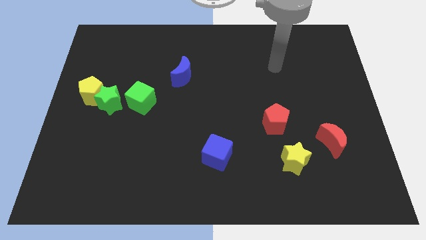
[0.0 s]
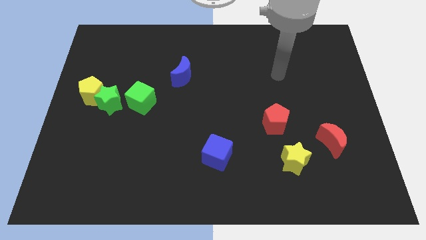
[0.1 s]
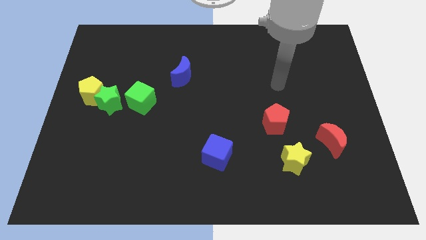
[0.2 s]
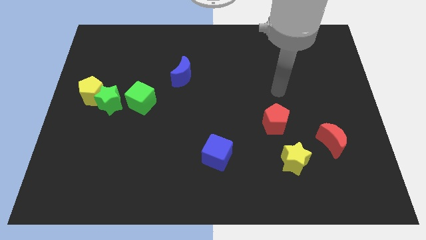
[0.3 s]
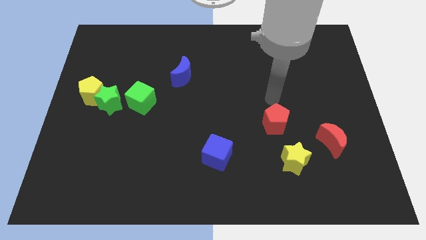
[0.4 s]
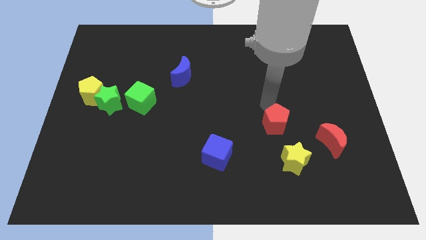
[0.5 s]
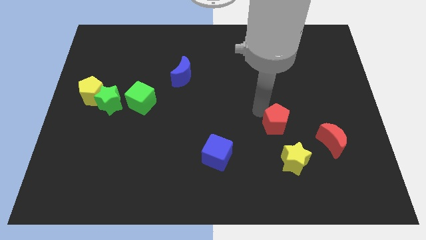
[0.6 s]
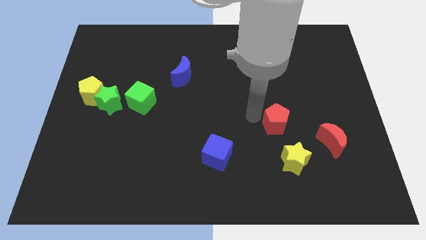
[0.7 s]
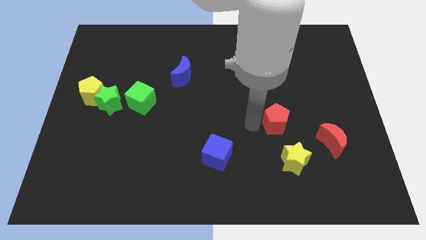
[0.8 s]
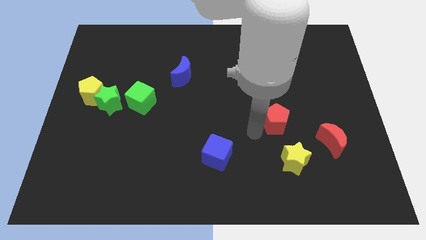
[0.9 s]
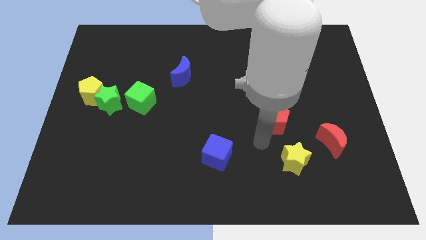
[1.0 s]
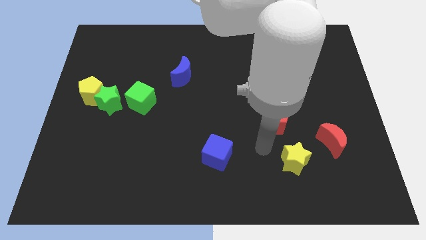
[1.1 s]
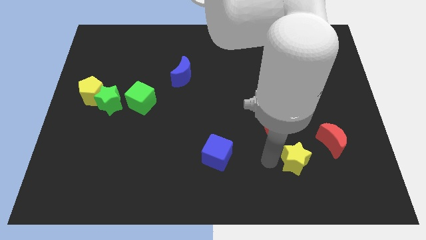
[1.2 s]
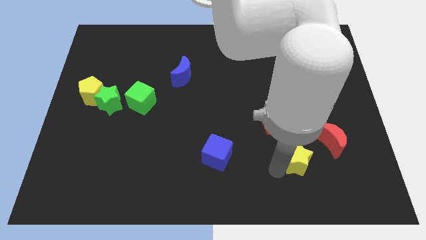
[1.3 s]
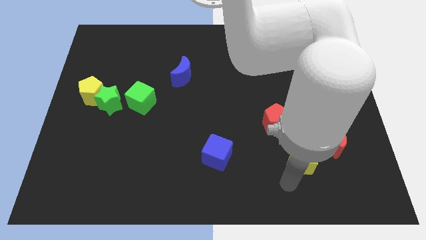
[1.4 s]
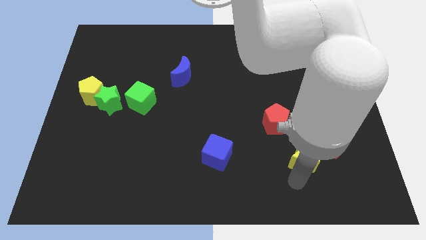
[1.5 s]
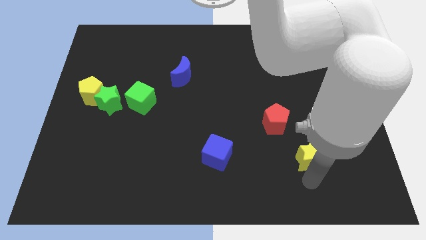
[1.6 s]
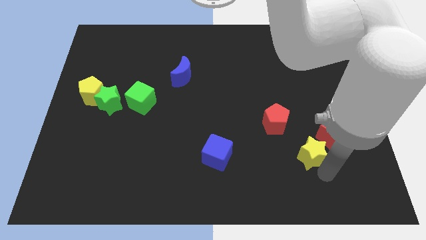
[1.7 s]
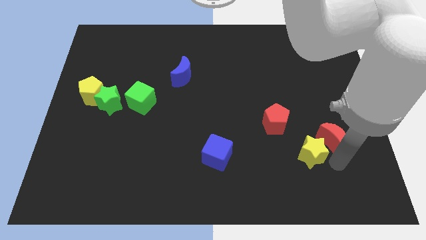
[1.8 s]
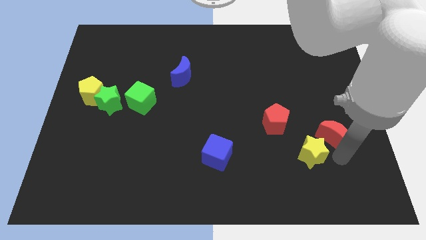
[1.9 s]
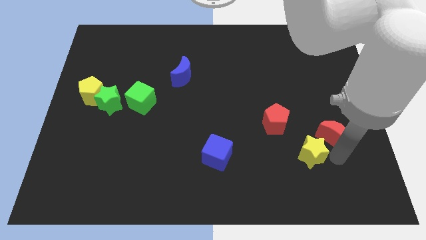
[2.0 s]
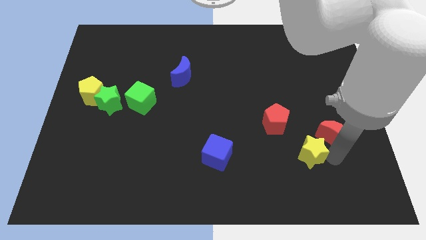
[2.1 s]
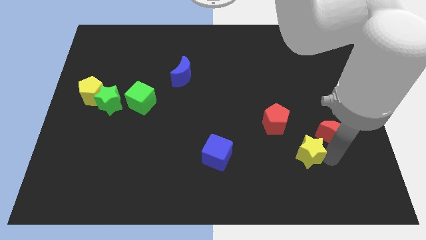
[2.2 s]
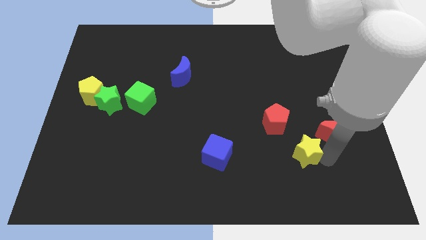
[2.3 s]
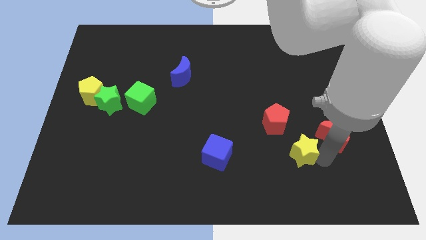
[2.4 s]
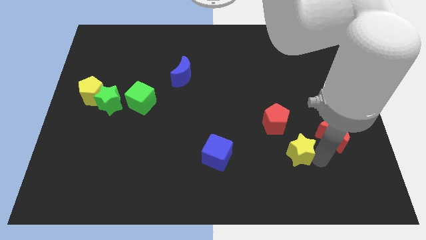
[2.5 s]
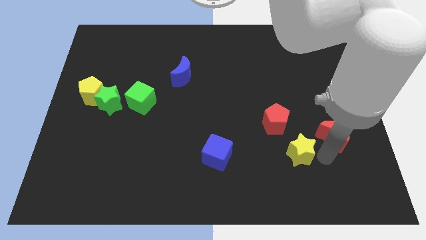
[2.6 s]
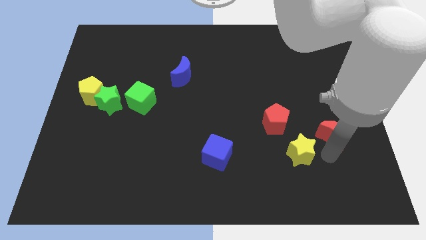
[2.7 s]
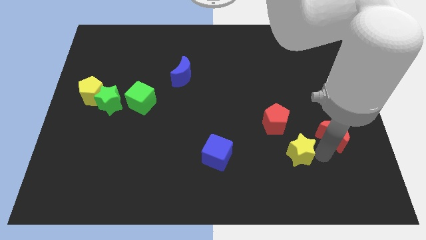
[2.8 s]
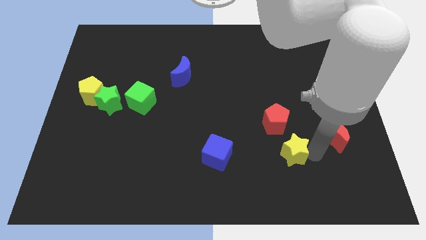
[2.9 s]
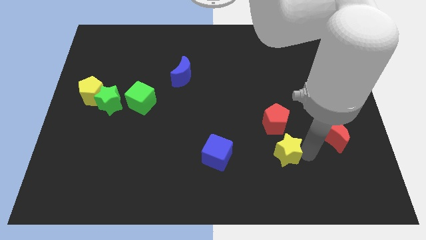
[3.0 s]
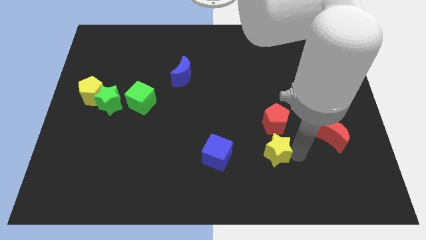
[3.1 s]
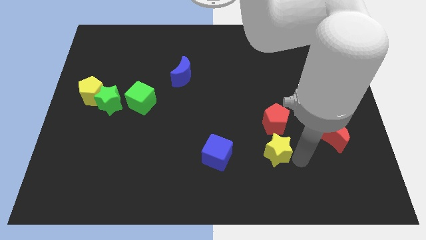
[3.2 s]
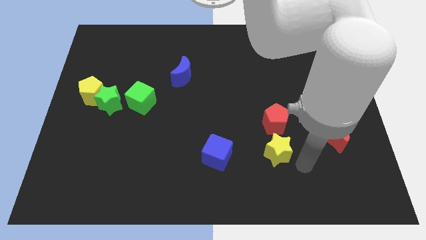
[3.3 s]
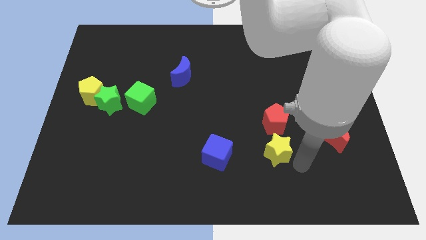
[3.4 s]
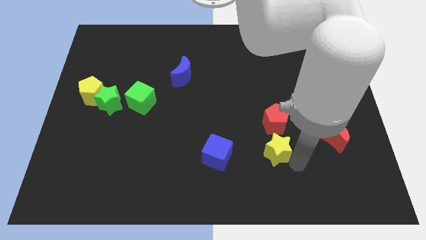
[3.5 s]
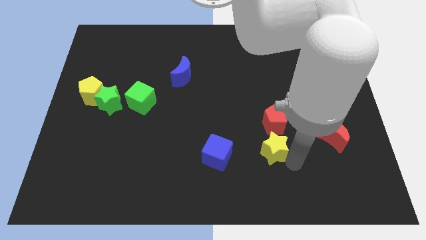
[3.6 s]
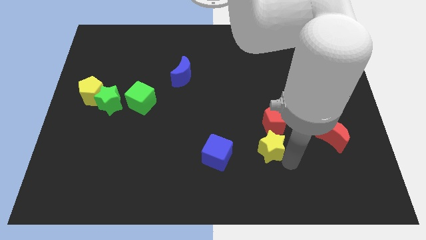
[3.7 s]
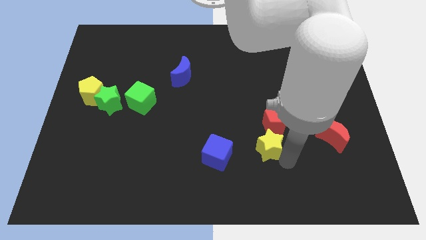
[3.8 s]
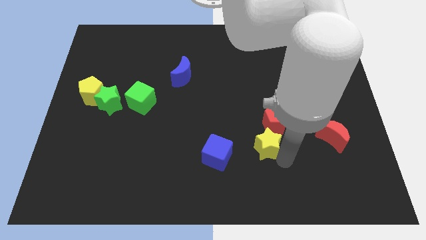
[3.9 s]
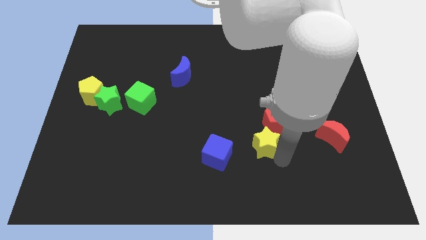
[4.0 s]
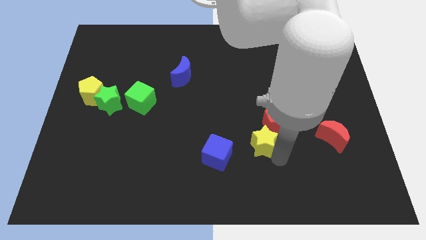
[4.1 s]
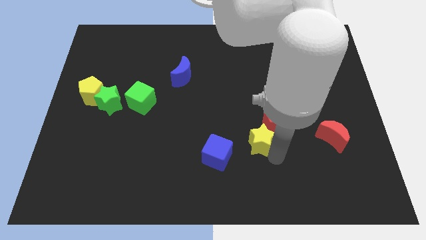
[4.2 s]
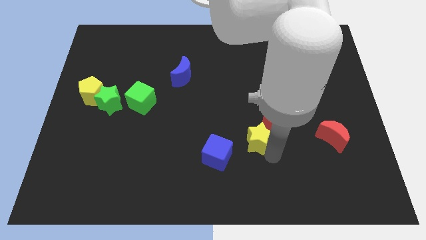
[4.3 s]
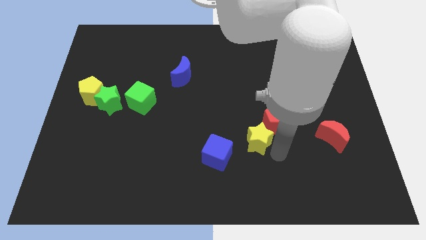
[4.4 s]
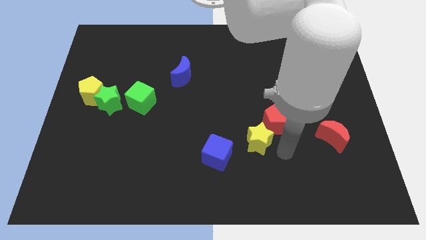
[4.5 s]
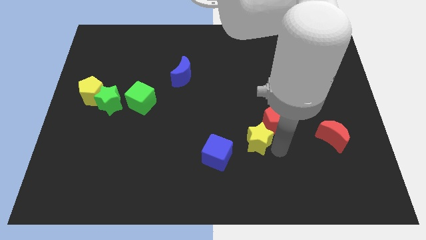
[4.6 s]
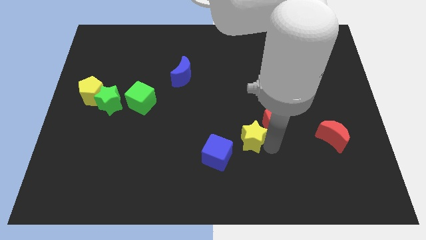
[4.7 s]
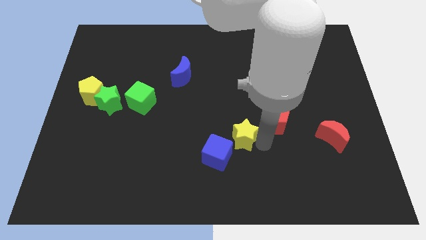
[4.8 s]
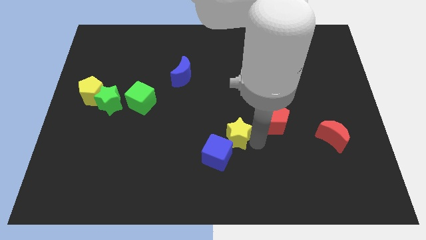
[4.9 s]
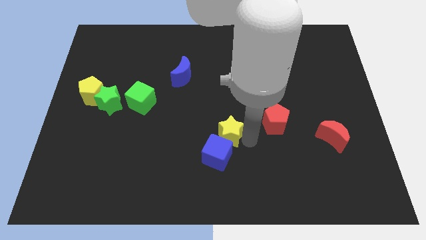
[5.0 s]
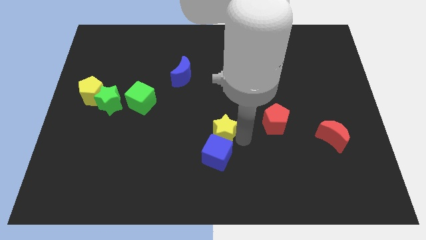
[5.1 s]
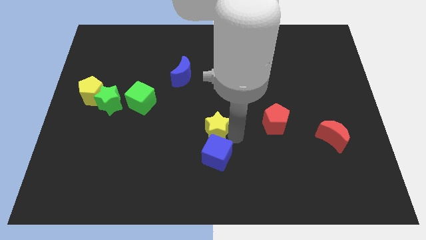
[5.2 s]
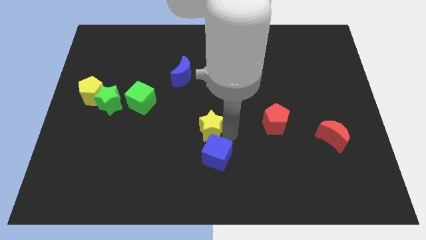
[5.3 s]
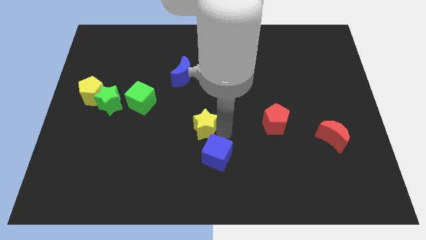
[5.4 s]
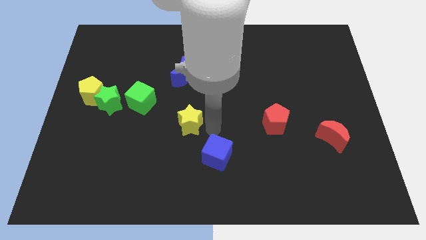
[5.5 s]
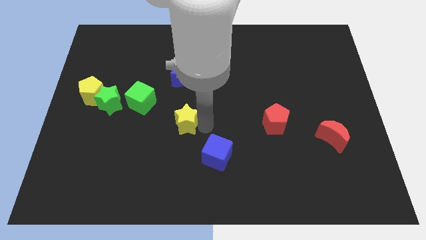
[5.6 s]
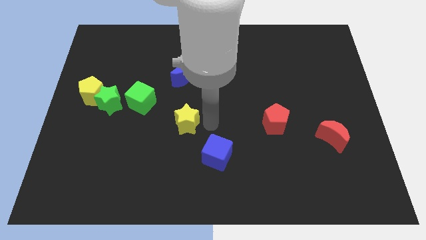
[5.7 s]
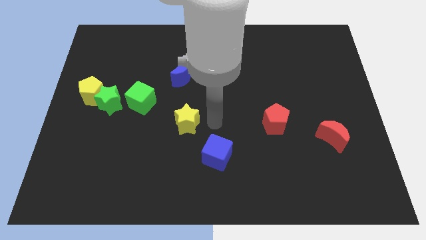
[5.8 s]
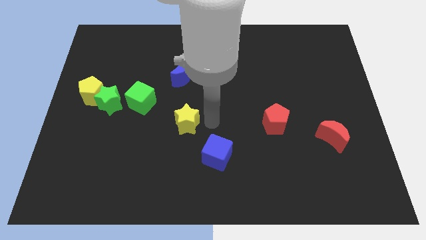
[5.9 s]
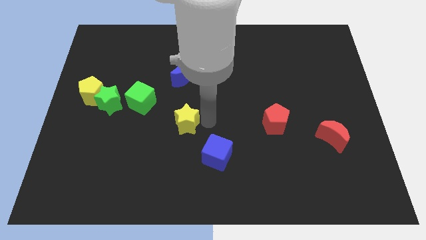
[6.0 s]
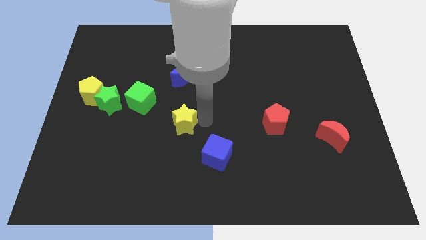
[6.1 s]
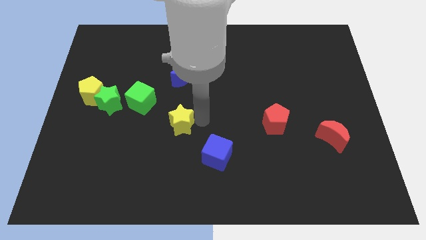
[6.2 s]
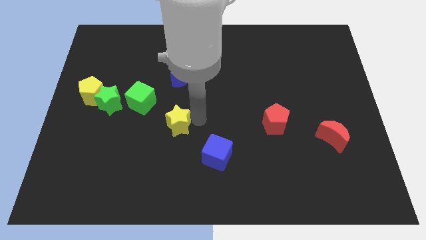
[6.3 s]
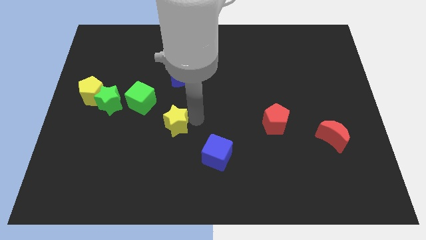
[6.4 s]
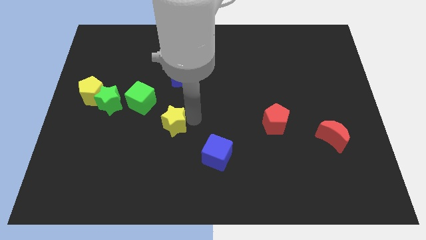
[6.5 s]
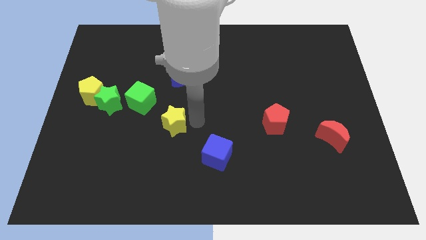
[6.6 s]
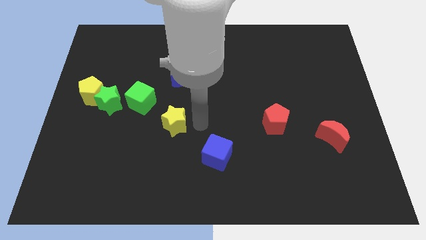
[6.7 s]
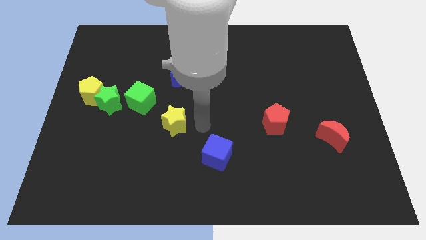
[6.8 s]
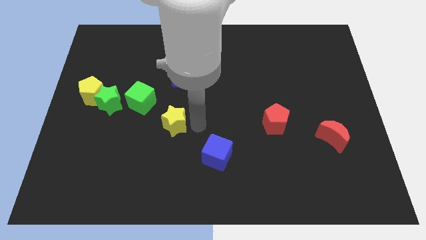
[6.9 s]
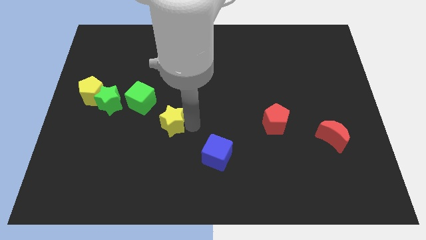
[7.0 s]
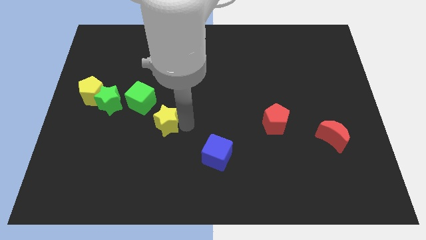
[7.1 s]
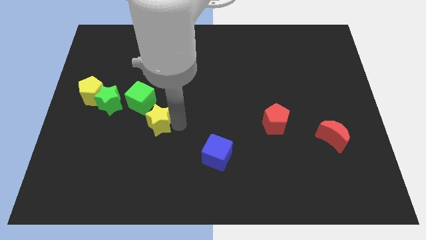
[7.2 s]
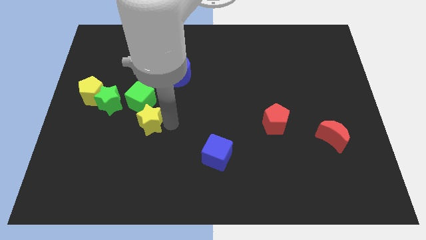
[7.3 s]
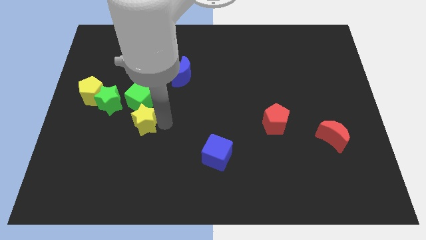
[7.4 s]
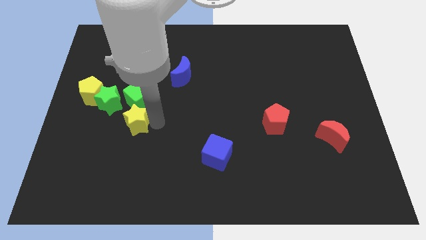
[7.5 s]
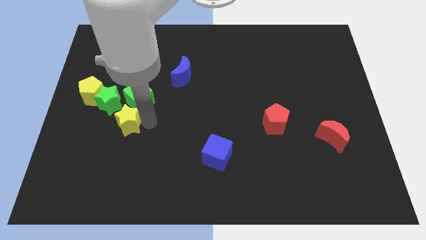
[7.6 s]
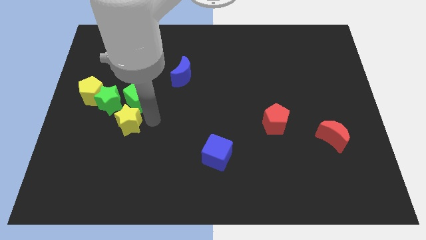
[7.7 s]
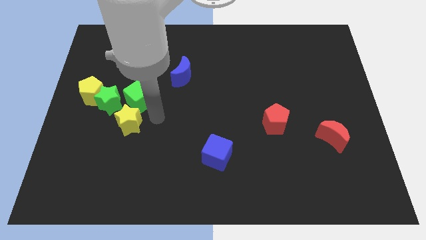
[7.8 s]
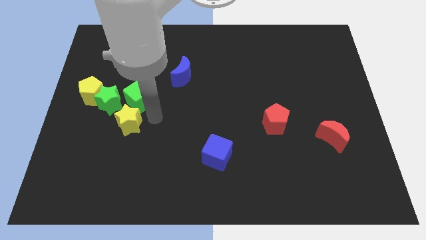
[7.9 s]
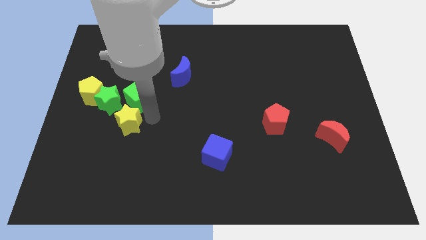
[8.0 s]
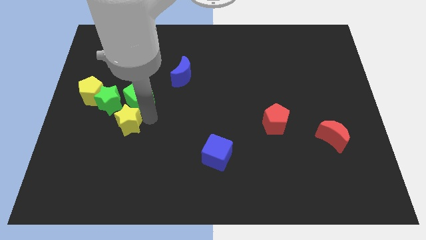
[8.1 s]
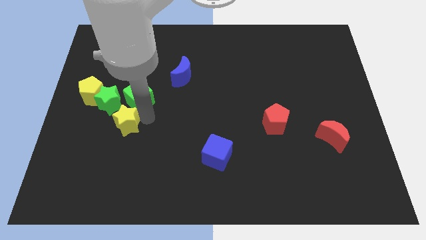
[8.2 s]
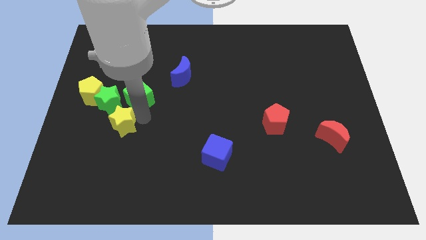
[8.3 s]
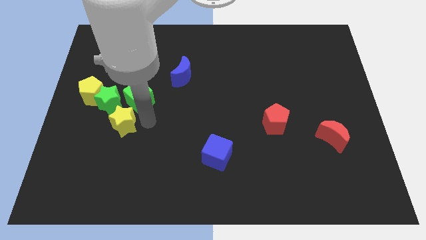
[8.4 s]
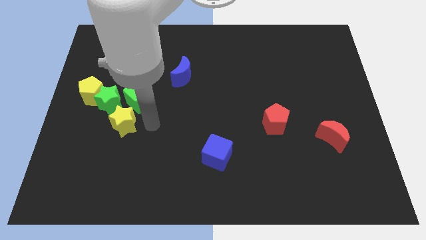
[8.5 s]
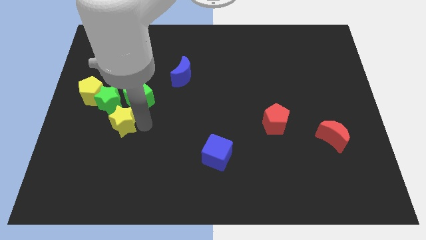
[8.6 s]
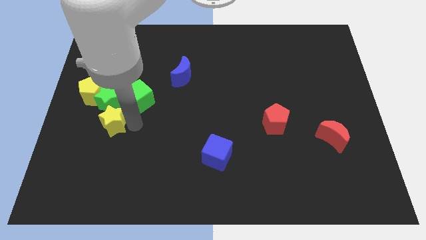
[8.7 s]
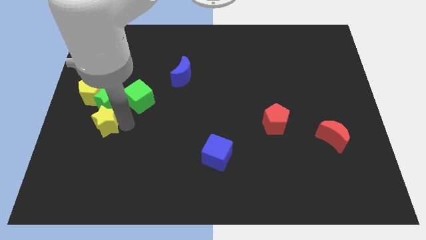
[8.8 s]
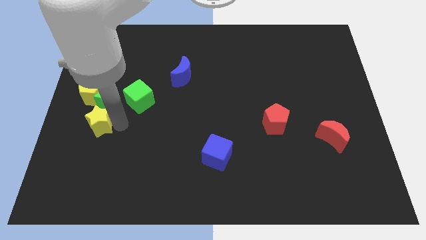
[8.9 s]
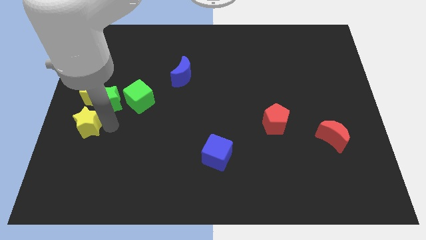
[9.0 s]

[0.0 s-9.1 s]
put the yellow star to the center left
